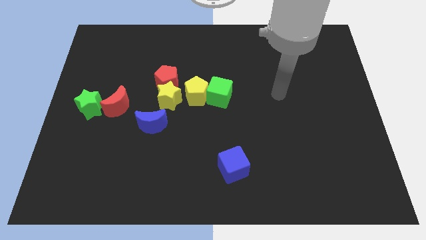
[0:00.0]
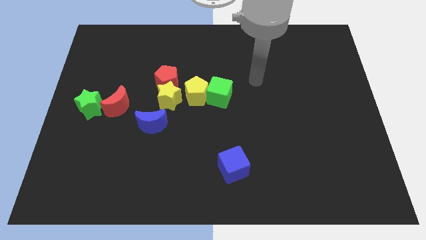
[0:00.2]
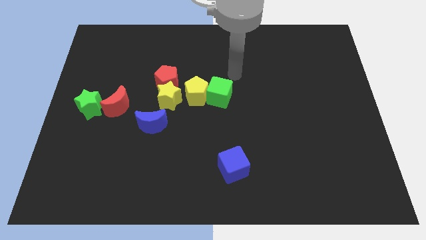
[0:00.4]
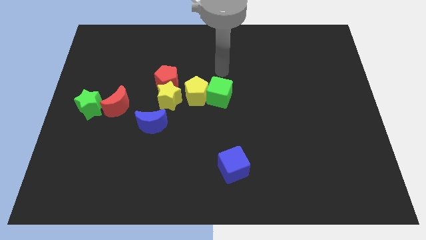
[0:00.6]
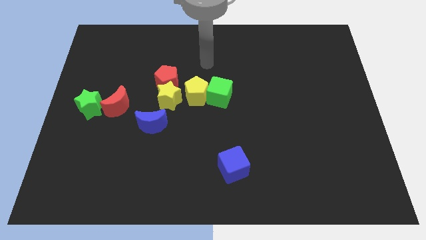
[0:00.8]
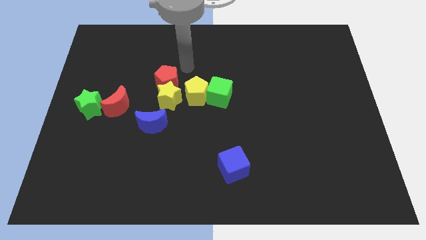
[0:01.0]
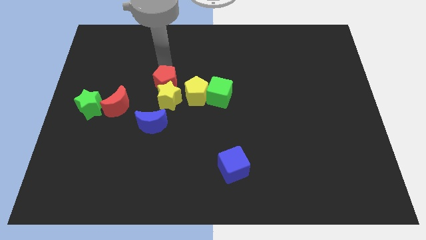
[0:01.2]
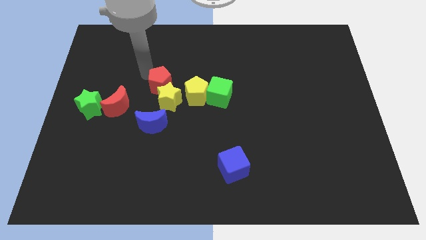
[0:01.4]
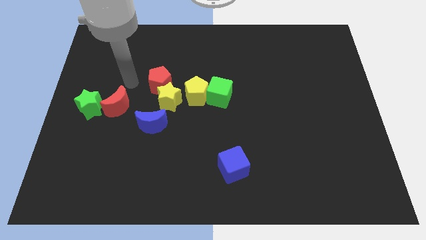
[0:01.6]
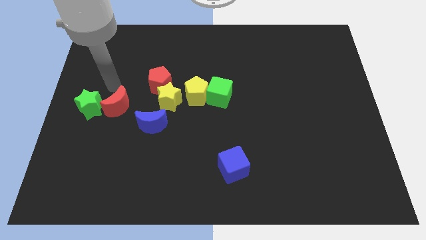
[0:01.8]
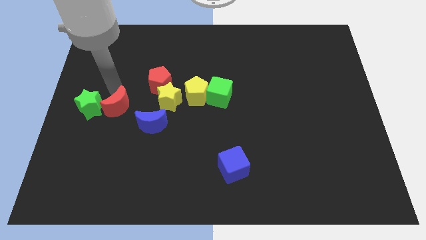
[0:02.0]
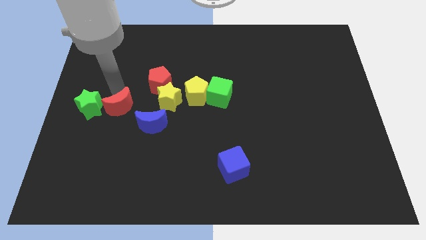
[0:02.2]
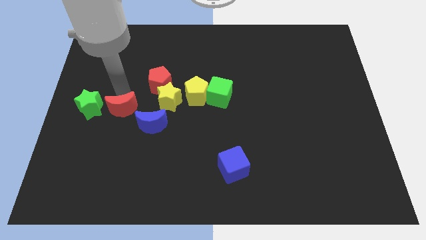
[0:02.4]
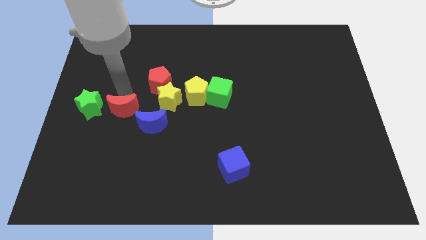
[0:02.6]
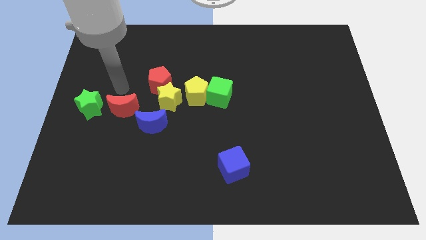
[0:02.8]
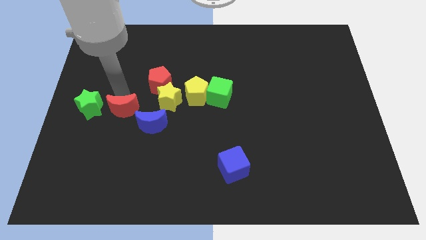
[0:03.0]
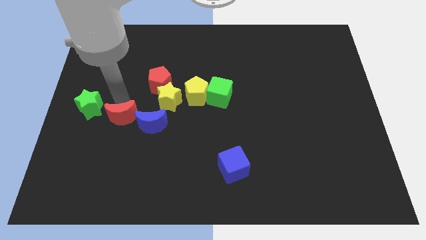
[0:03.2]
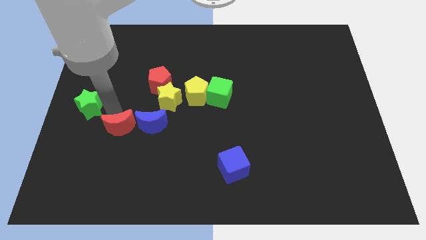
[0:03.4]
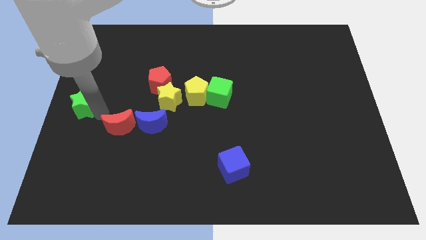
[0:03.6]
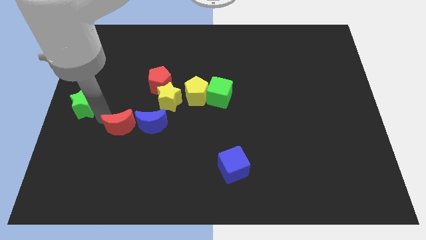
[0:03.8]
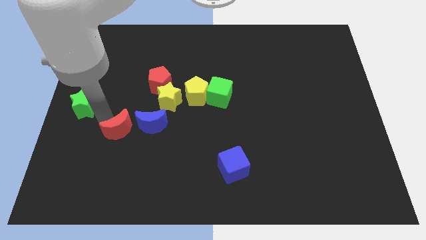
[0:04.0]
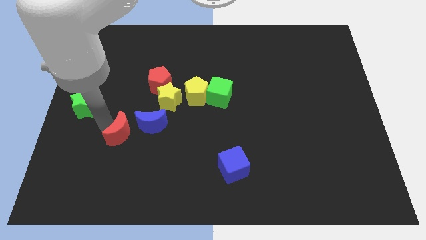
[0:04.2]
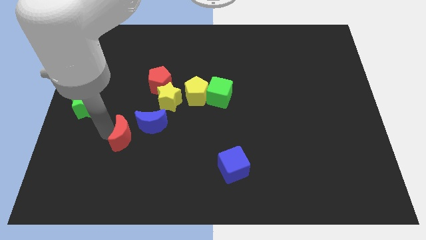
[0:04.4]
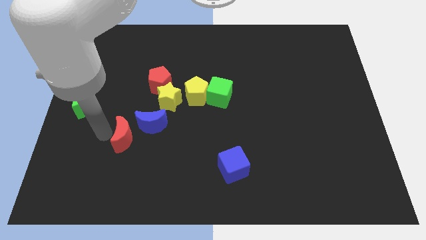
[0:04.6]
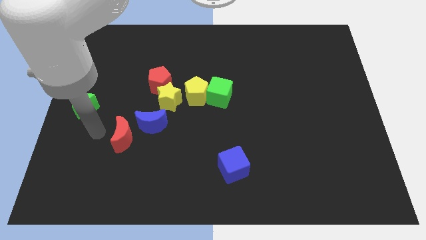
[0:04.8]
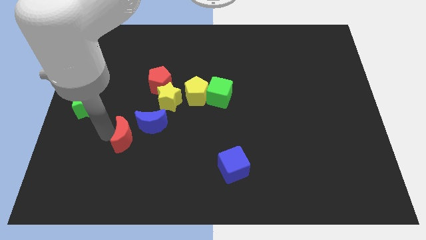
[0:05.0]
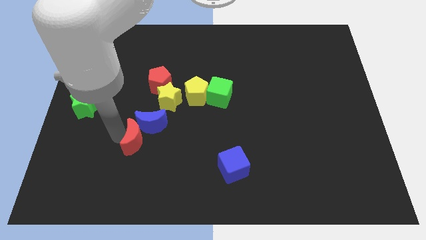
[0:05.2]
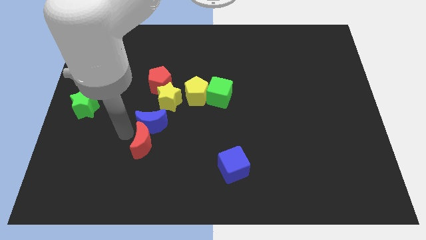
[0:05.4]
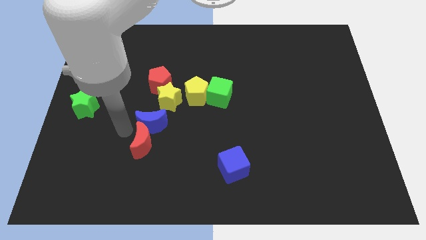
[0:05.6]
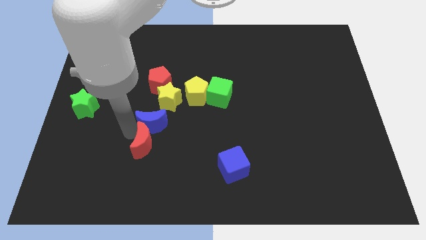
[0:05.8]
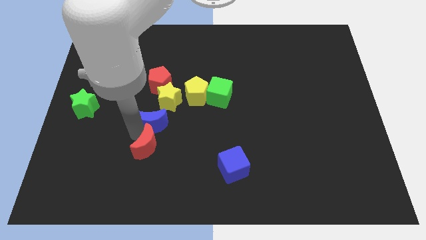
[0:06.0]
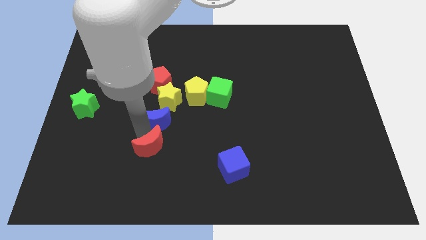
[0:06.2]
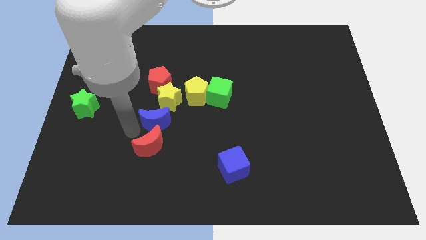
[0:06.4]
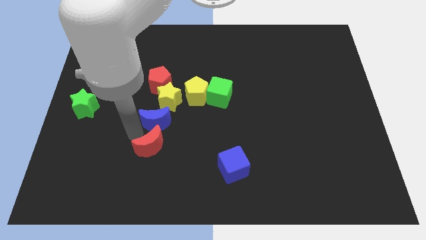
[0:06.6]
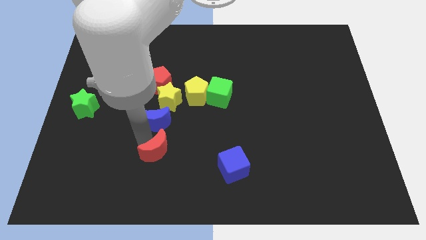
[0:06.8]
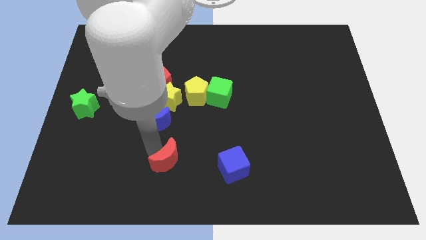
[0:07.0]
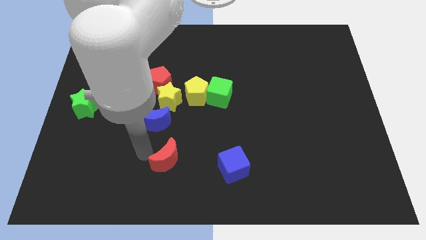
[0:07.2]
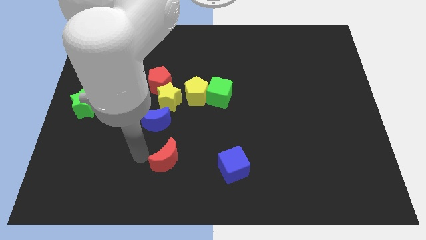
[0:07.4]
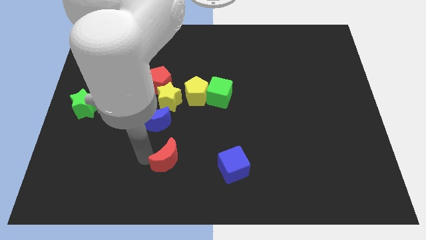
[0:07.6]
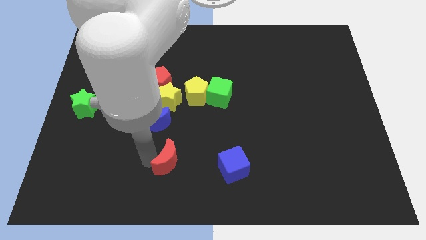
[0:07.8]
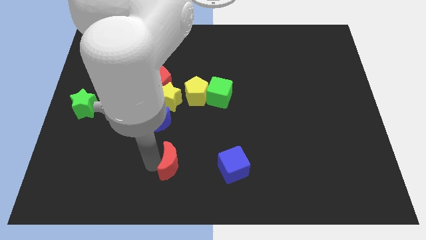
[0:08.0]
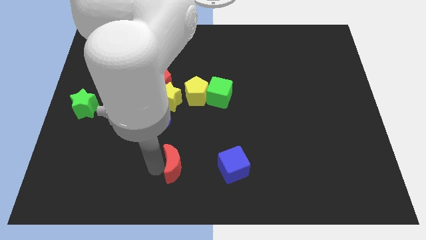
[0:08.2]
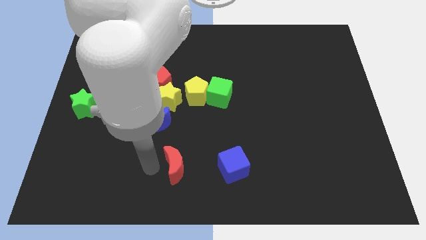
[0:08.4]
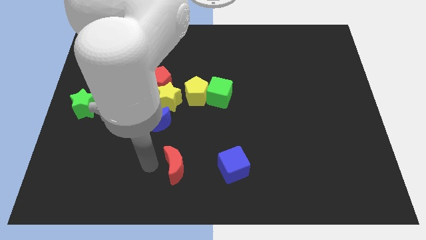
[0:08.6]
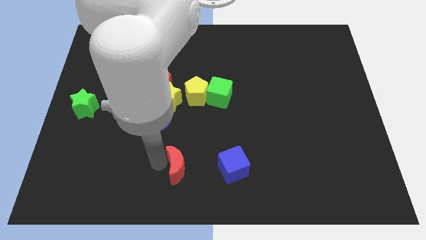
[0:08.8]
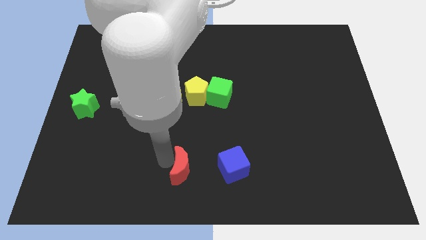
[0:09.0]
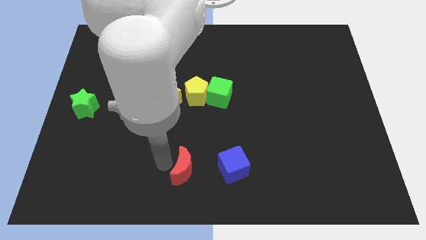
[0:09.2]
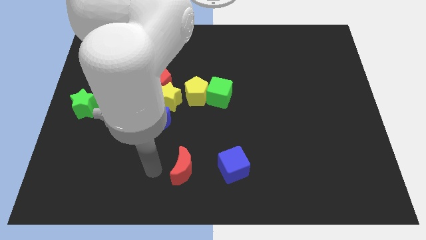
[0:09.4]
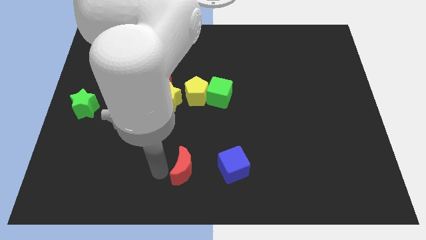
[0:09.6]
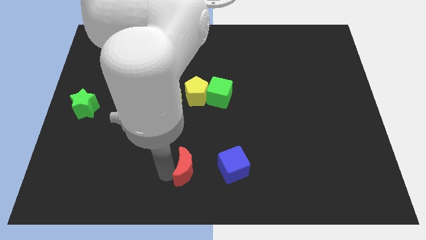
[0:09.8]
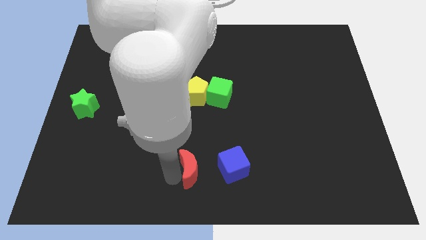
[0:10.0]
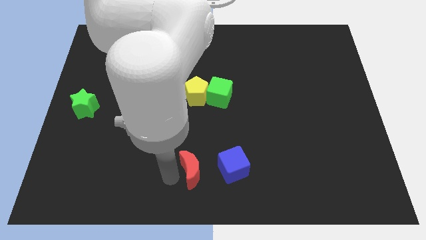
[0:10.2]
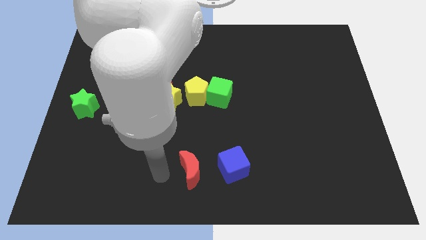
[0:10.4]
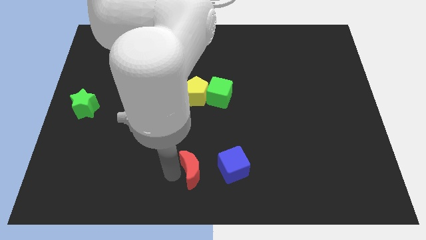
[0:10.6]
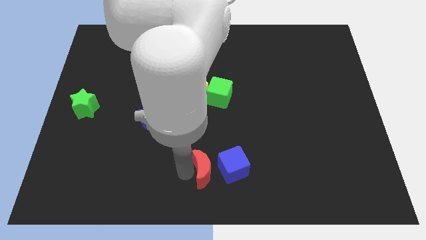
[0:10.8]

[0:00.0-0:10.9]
slide the red moon to the blue cube

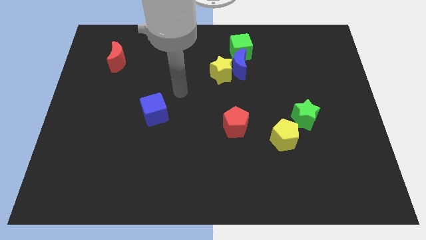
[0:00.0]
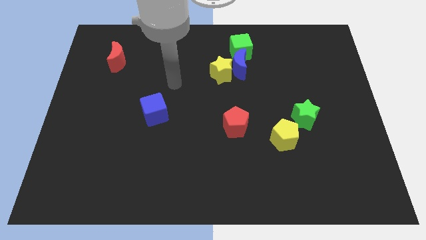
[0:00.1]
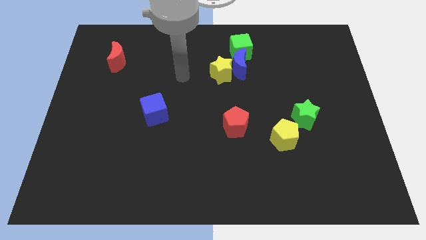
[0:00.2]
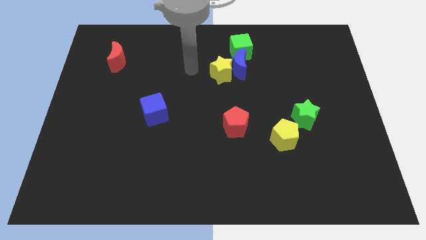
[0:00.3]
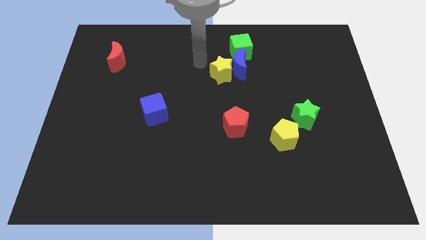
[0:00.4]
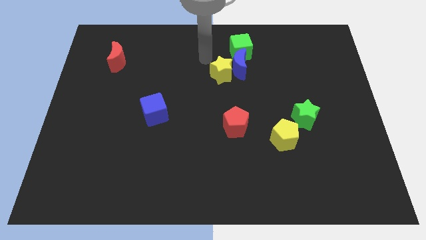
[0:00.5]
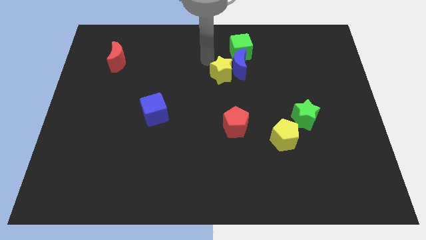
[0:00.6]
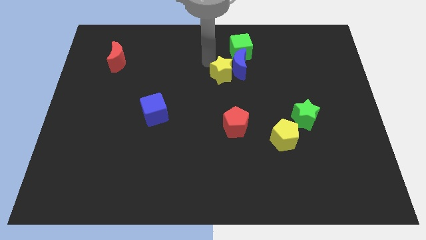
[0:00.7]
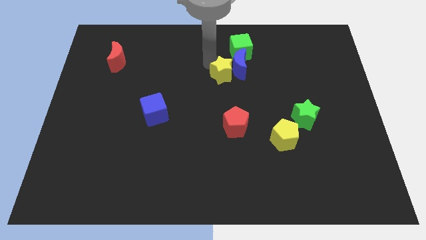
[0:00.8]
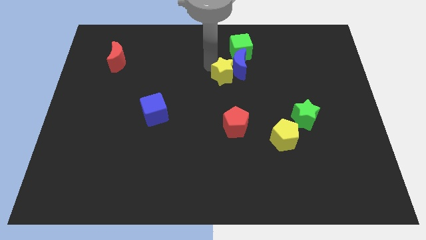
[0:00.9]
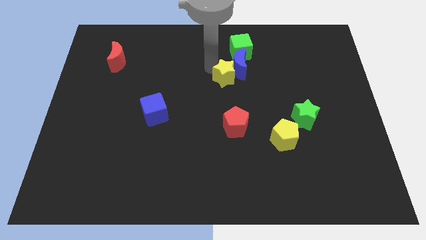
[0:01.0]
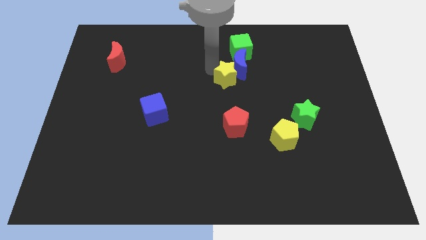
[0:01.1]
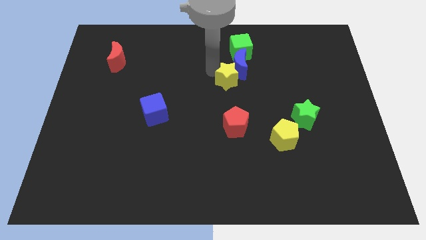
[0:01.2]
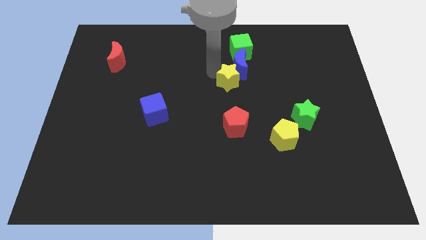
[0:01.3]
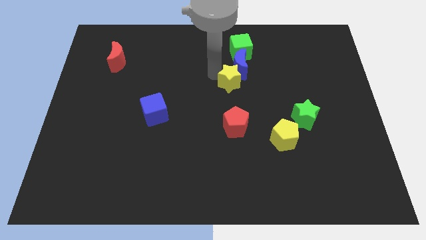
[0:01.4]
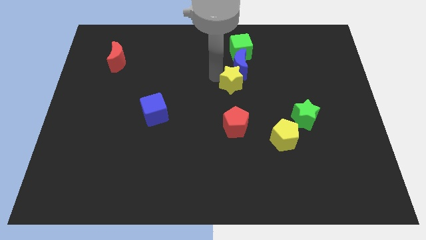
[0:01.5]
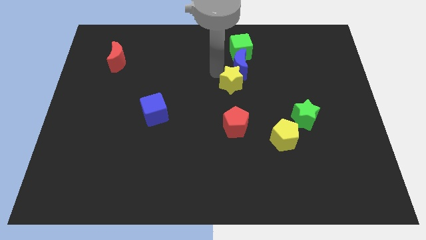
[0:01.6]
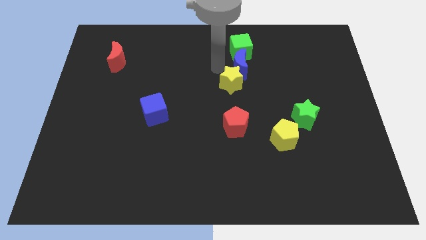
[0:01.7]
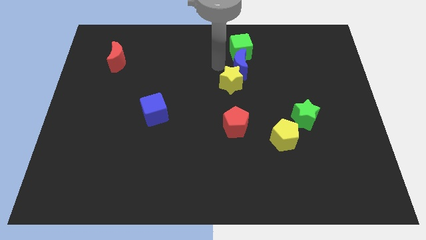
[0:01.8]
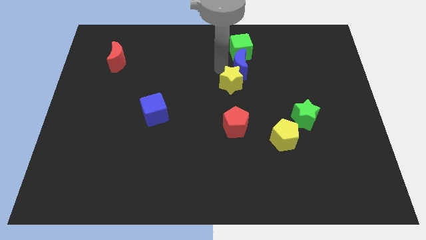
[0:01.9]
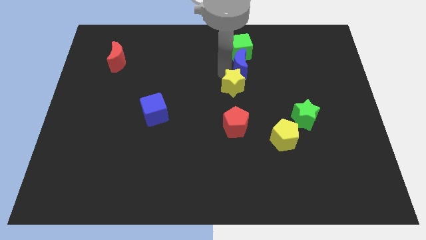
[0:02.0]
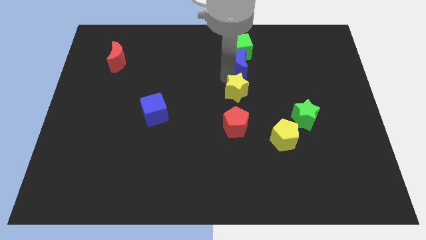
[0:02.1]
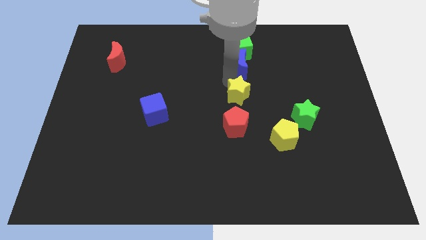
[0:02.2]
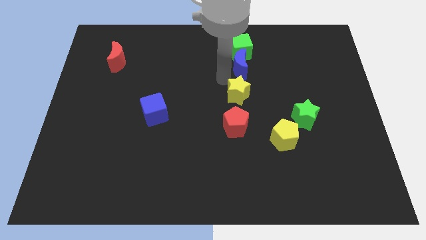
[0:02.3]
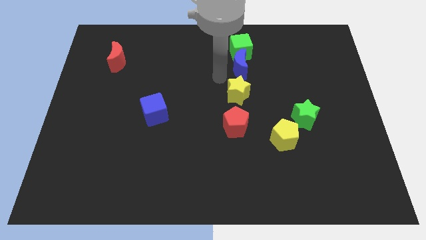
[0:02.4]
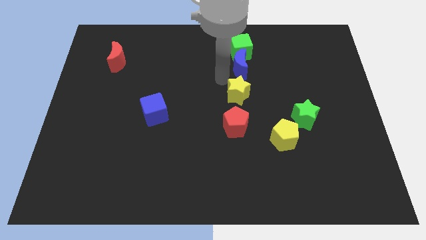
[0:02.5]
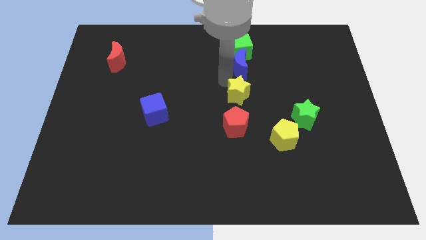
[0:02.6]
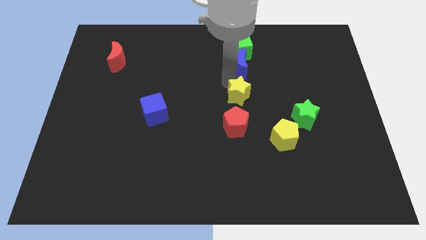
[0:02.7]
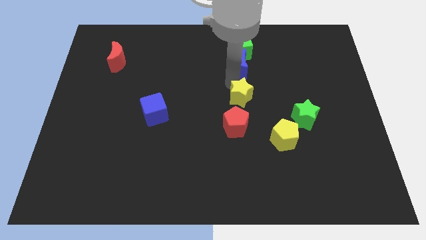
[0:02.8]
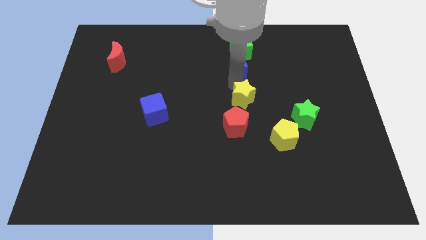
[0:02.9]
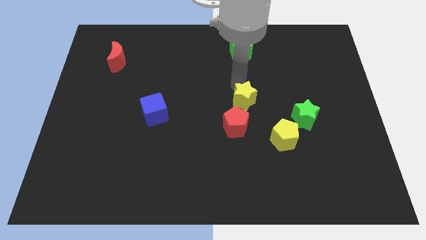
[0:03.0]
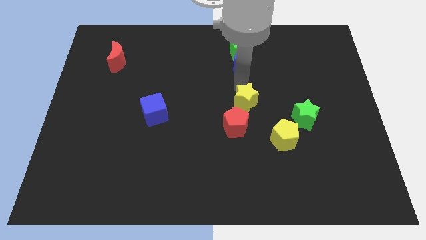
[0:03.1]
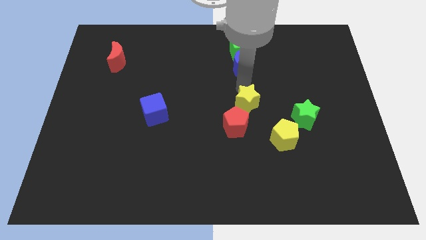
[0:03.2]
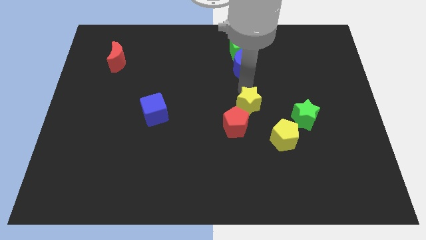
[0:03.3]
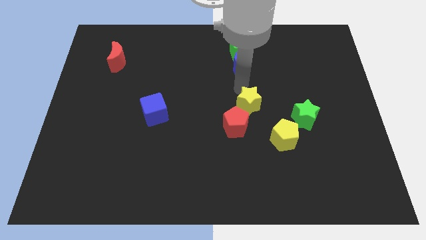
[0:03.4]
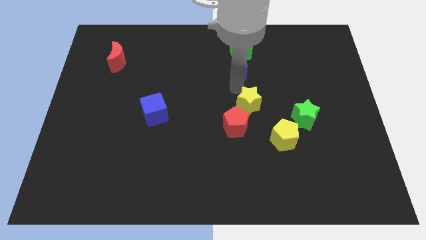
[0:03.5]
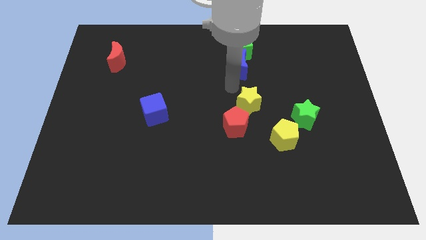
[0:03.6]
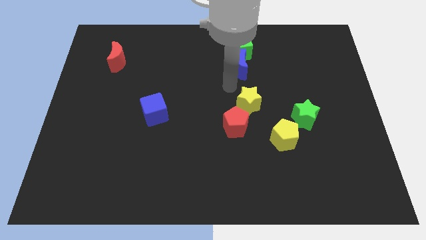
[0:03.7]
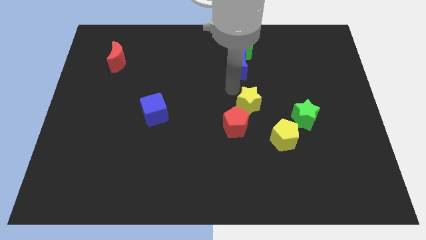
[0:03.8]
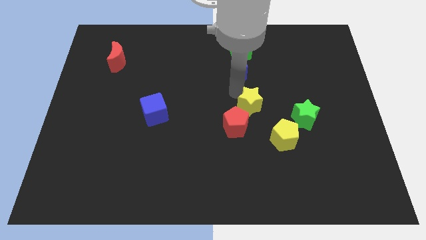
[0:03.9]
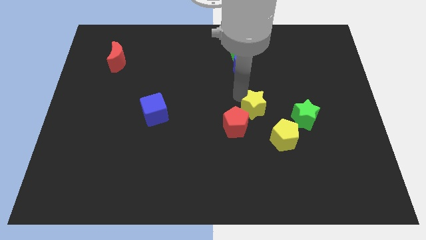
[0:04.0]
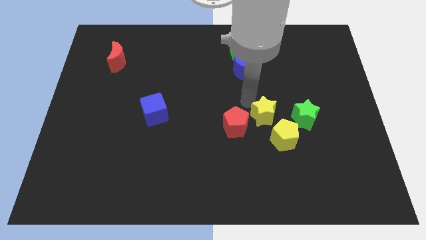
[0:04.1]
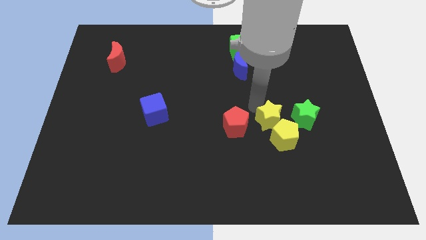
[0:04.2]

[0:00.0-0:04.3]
push the yellow star towards the yellow pentagon
